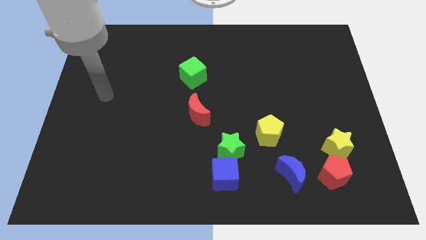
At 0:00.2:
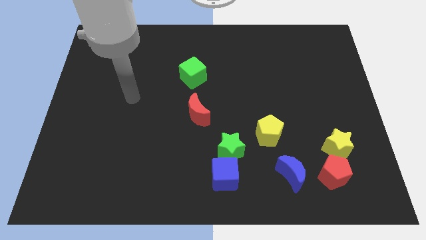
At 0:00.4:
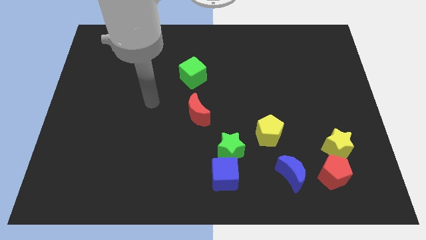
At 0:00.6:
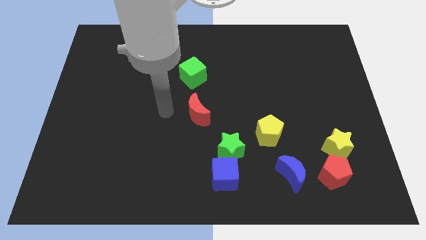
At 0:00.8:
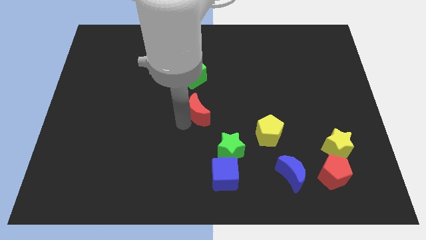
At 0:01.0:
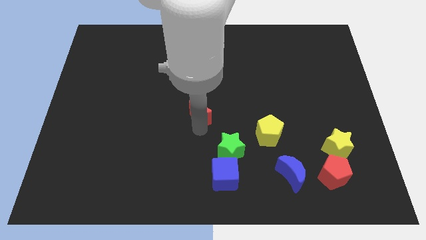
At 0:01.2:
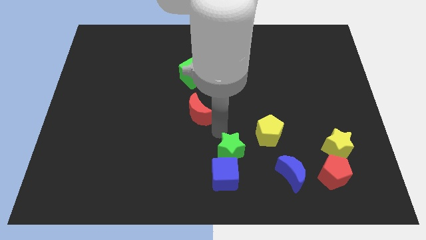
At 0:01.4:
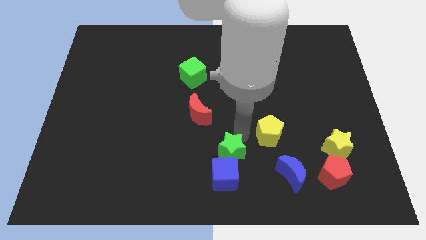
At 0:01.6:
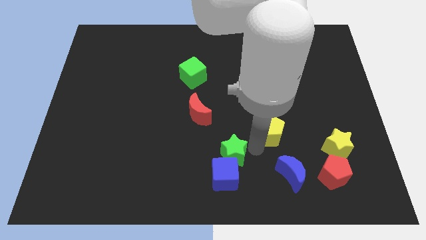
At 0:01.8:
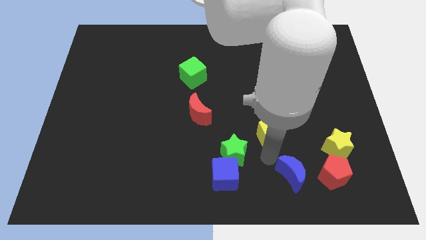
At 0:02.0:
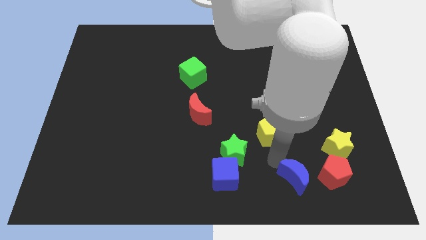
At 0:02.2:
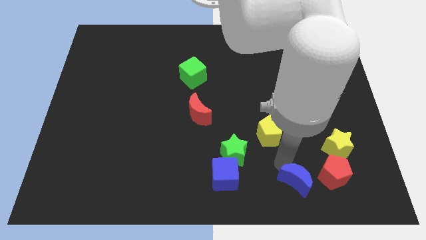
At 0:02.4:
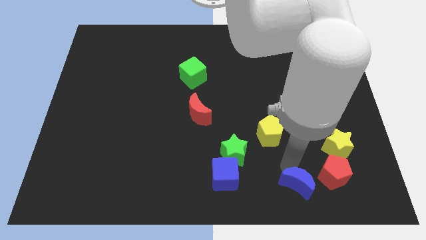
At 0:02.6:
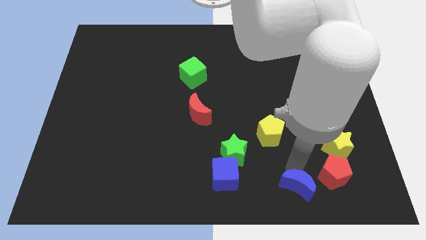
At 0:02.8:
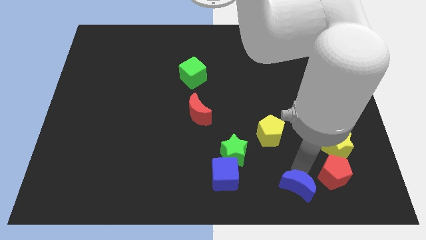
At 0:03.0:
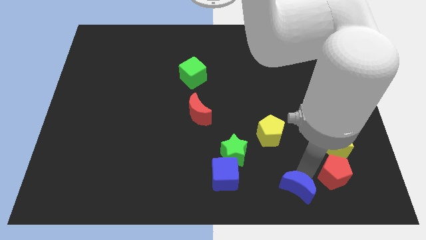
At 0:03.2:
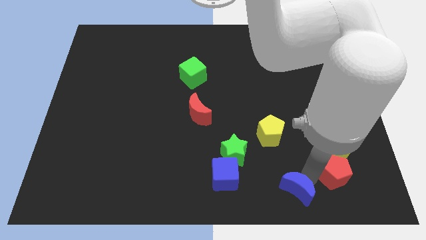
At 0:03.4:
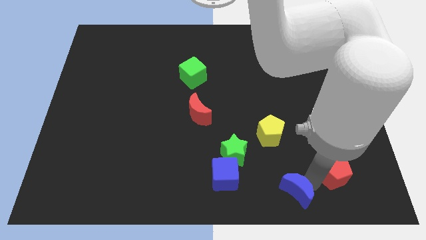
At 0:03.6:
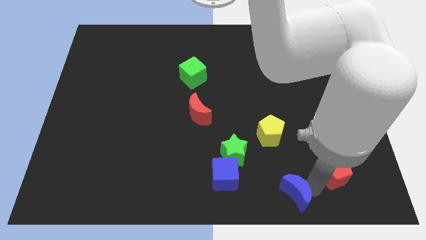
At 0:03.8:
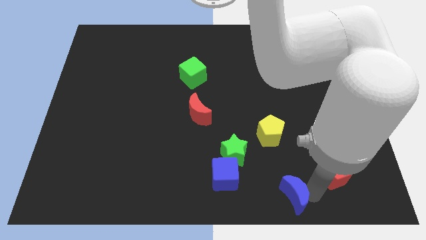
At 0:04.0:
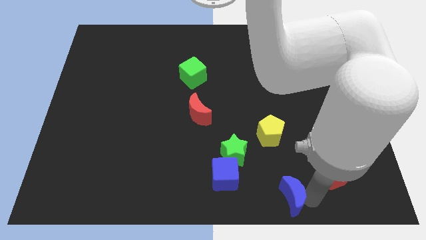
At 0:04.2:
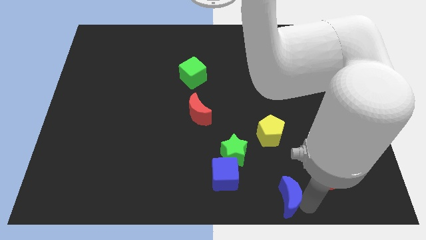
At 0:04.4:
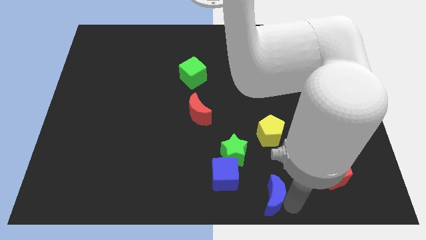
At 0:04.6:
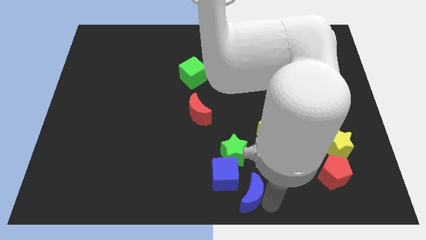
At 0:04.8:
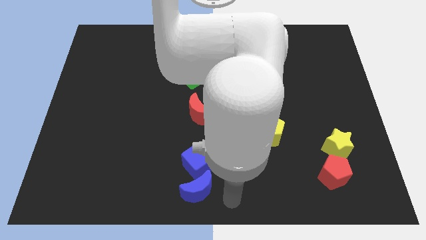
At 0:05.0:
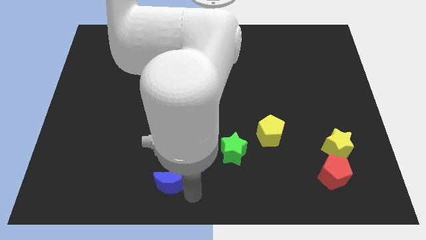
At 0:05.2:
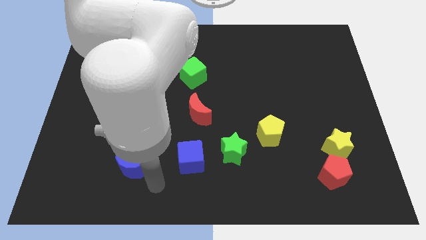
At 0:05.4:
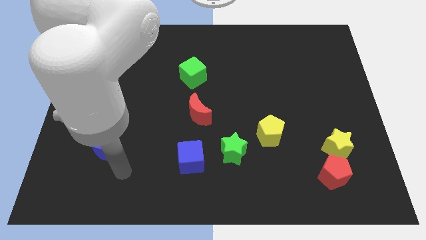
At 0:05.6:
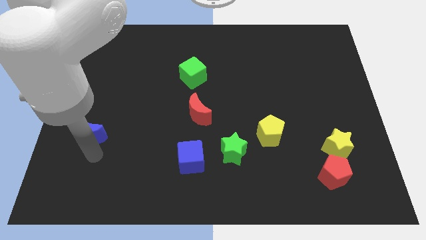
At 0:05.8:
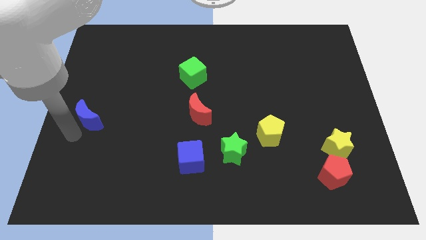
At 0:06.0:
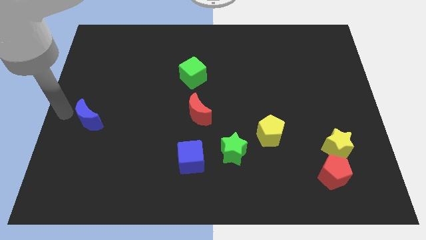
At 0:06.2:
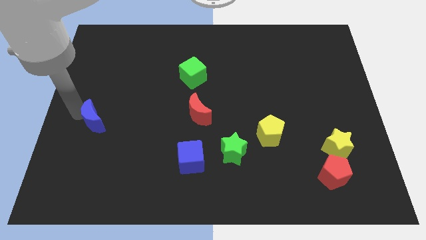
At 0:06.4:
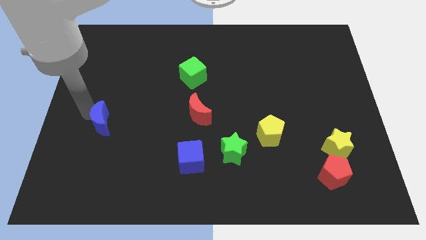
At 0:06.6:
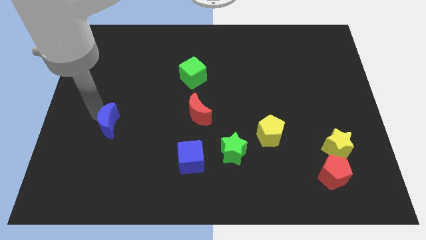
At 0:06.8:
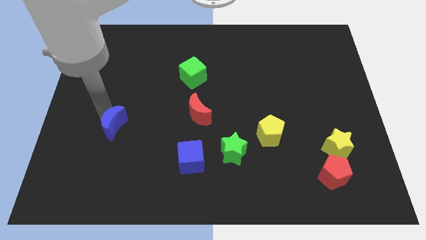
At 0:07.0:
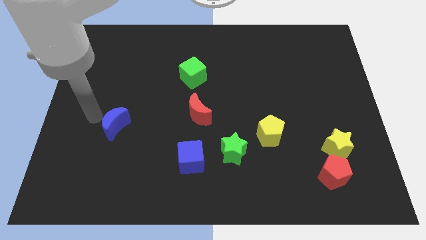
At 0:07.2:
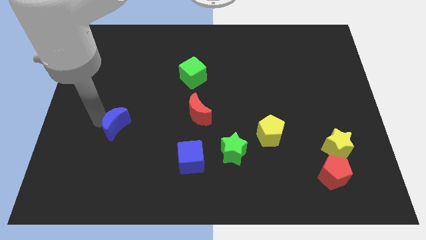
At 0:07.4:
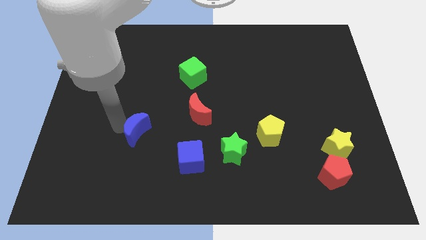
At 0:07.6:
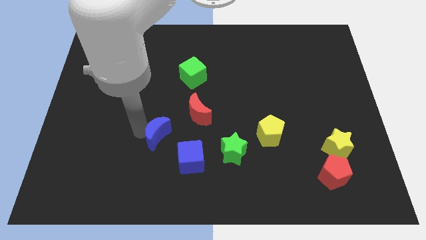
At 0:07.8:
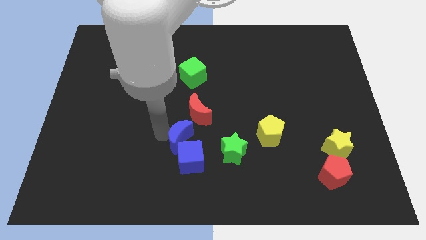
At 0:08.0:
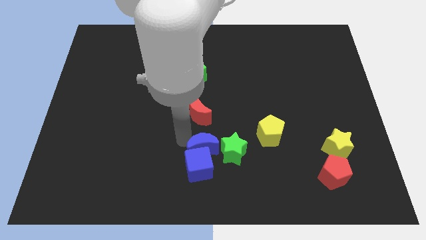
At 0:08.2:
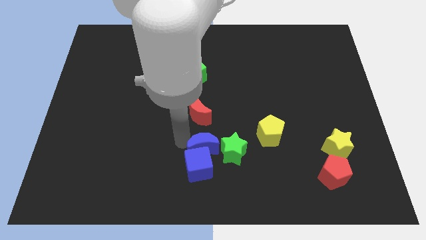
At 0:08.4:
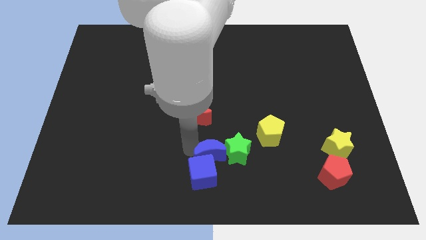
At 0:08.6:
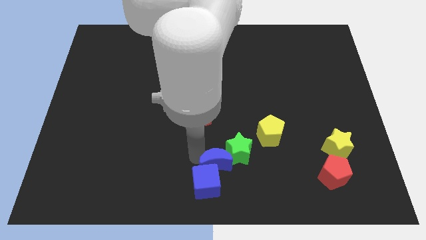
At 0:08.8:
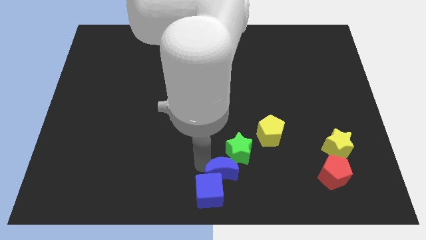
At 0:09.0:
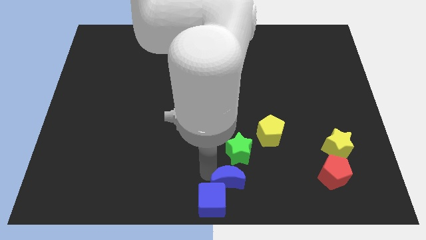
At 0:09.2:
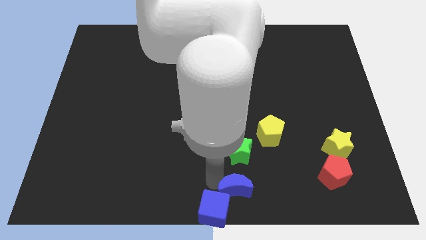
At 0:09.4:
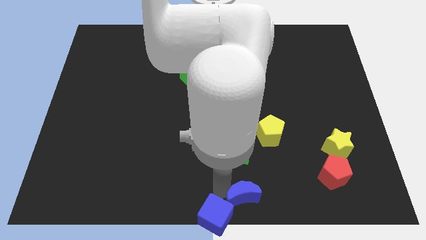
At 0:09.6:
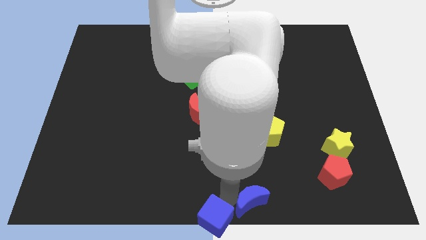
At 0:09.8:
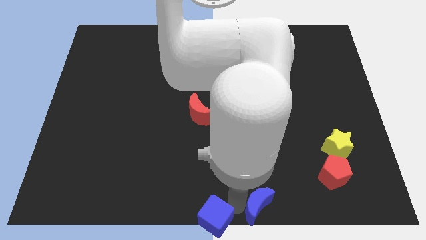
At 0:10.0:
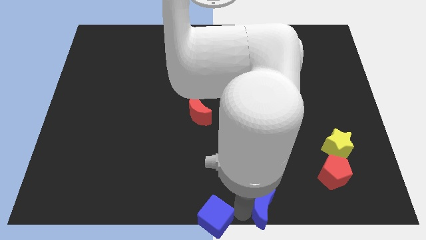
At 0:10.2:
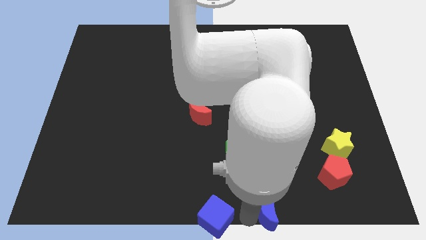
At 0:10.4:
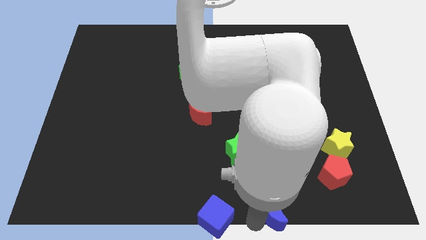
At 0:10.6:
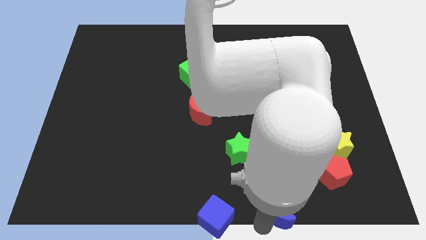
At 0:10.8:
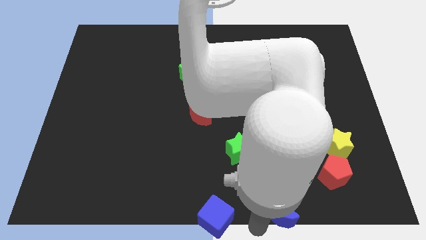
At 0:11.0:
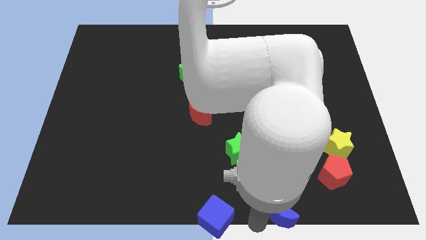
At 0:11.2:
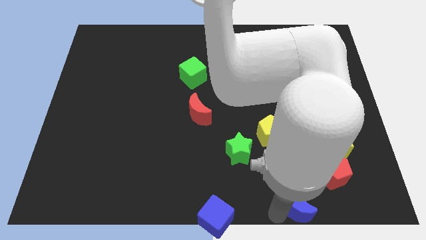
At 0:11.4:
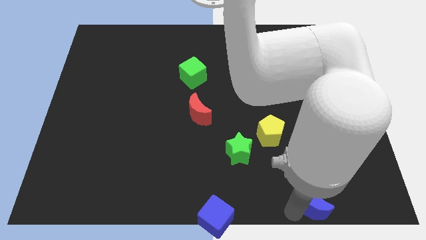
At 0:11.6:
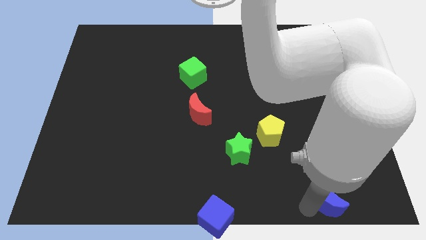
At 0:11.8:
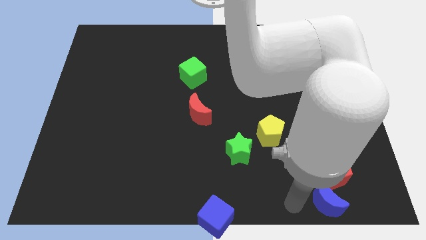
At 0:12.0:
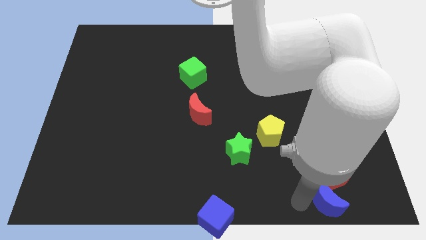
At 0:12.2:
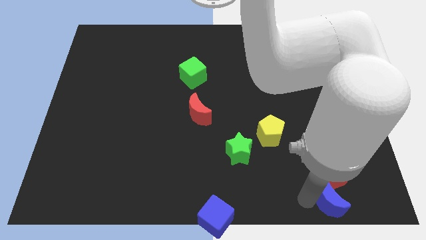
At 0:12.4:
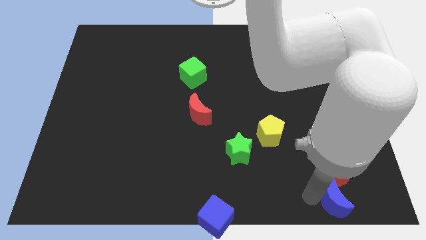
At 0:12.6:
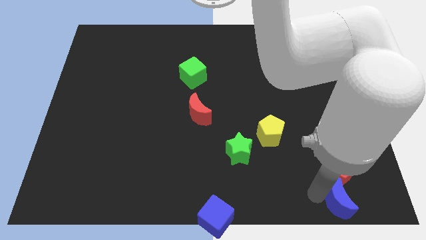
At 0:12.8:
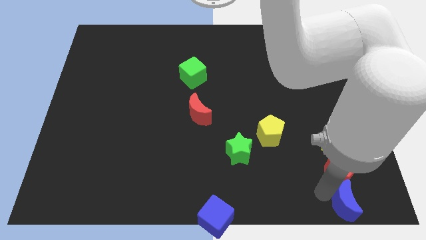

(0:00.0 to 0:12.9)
move the blue moon to the bottom right

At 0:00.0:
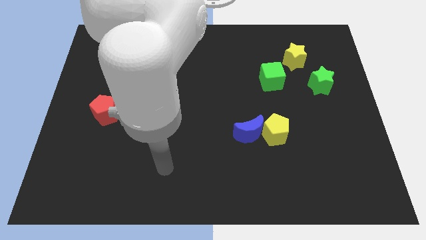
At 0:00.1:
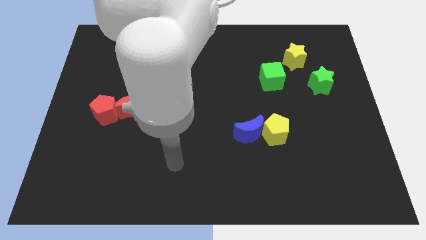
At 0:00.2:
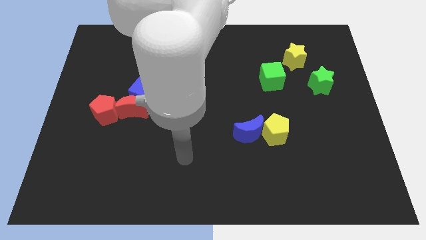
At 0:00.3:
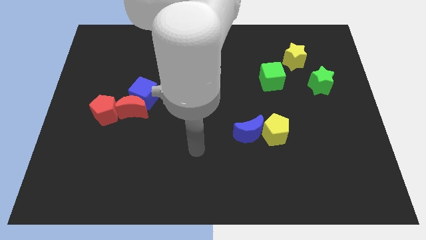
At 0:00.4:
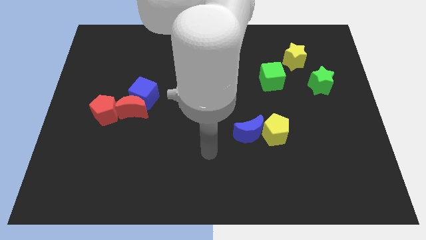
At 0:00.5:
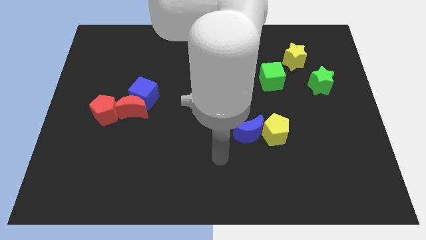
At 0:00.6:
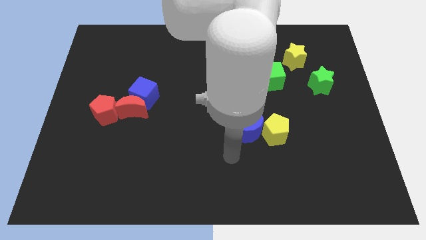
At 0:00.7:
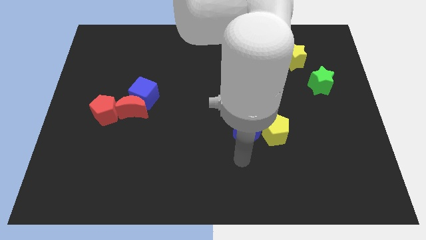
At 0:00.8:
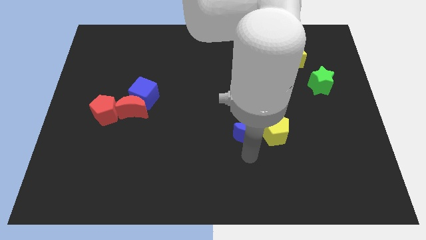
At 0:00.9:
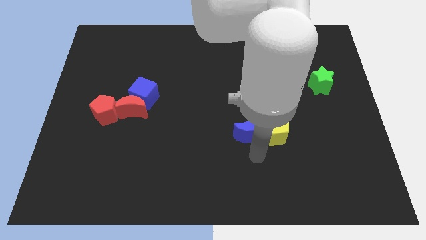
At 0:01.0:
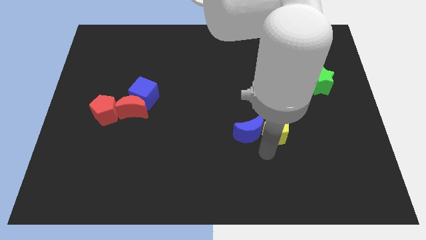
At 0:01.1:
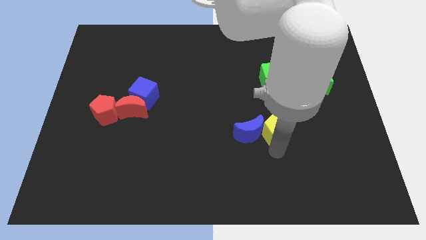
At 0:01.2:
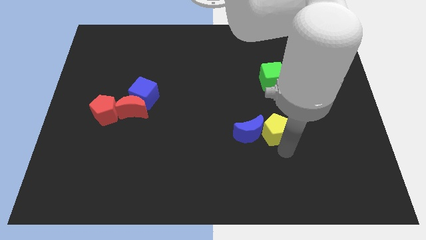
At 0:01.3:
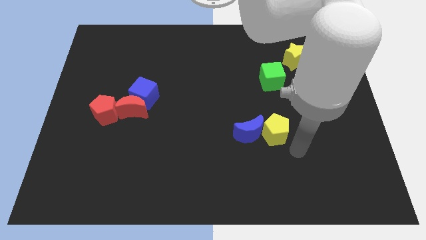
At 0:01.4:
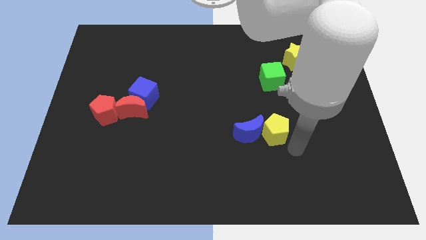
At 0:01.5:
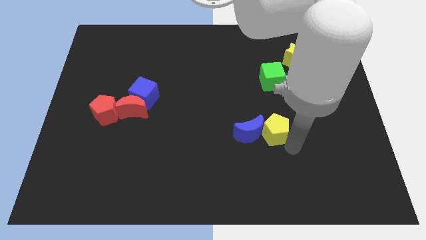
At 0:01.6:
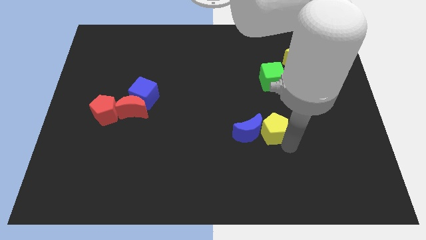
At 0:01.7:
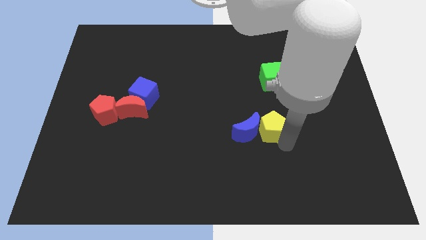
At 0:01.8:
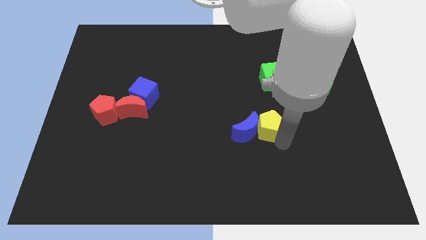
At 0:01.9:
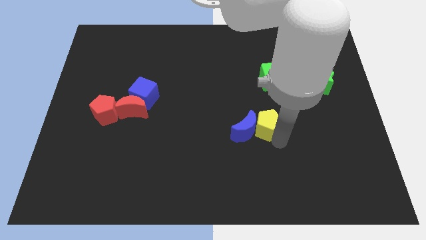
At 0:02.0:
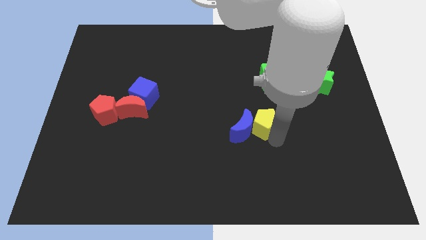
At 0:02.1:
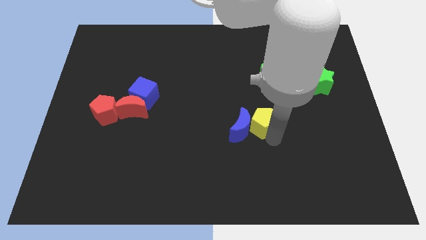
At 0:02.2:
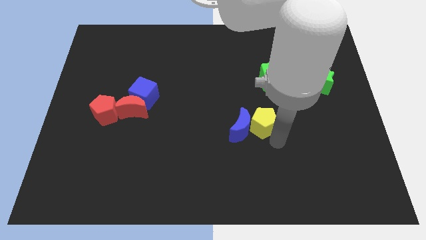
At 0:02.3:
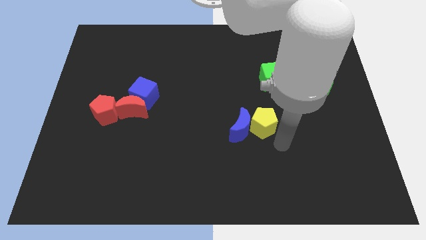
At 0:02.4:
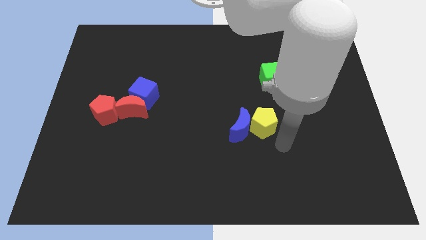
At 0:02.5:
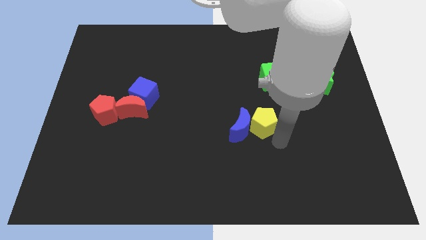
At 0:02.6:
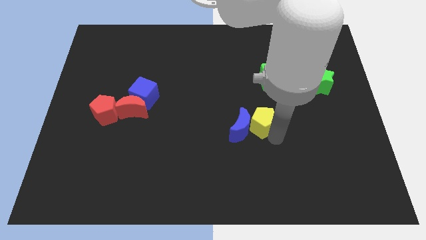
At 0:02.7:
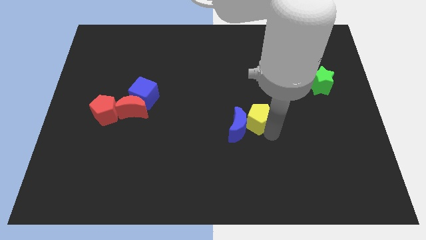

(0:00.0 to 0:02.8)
push the yellow pentagon to the center of the board
